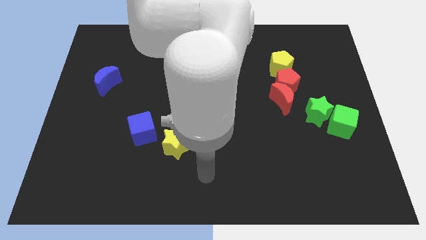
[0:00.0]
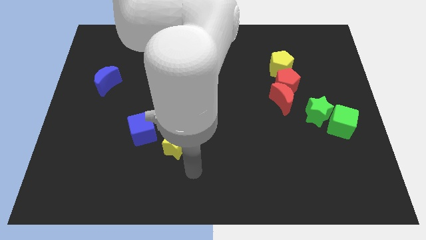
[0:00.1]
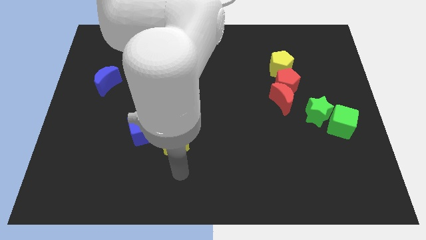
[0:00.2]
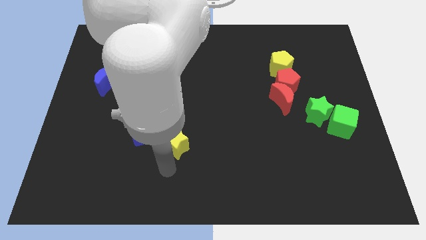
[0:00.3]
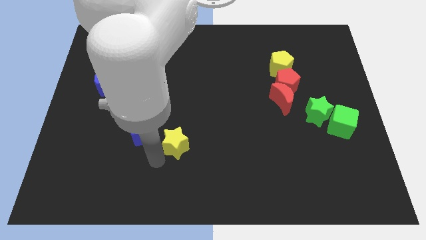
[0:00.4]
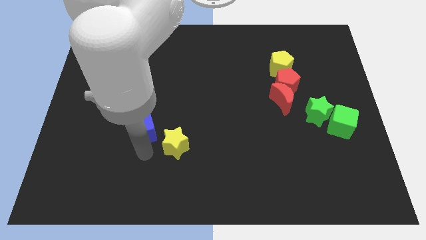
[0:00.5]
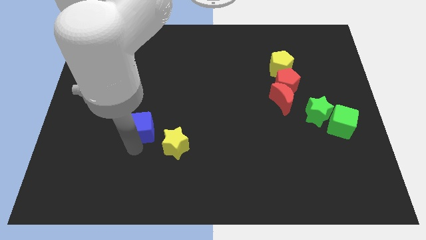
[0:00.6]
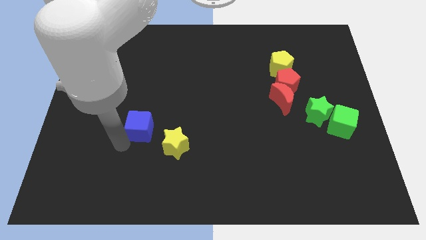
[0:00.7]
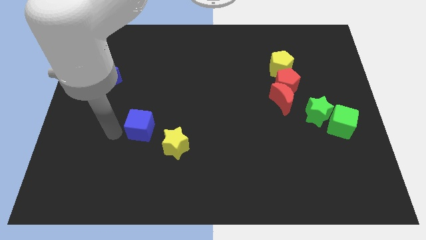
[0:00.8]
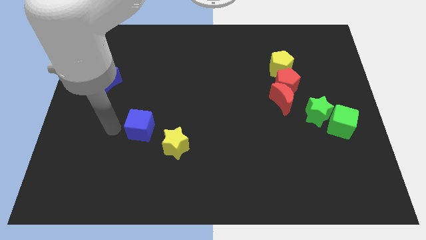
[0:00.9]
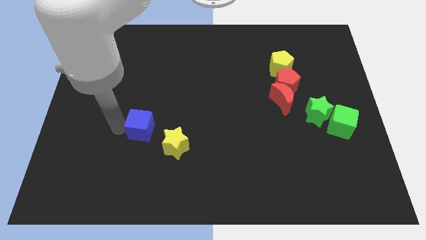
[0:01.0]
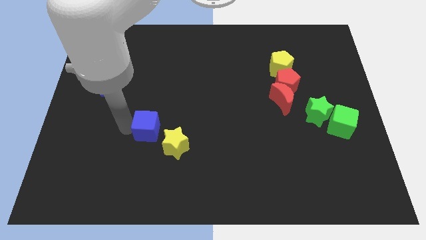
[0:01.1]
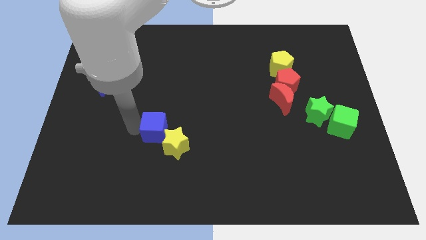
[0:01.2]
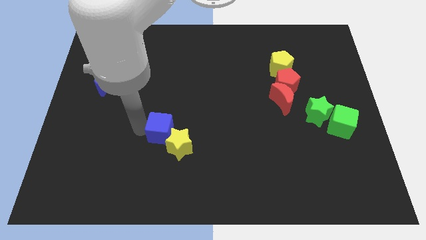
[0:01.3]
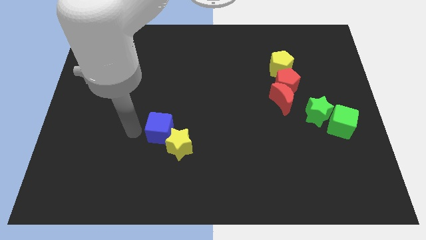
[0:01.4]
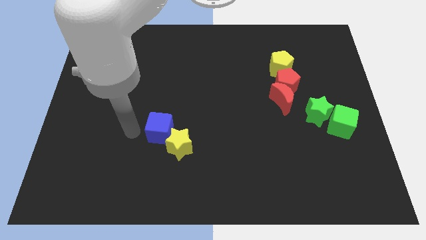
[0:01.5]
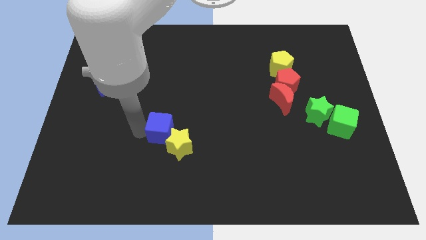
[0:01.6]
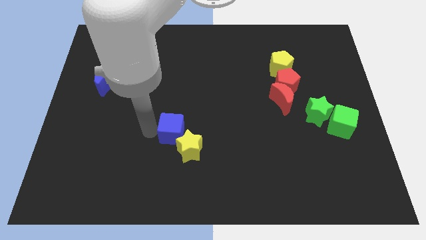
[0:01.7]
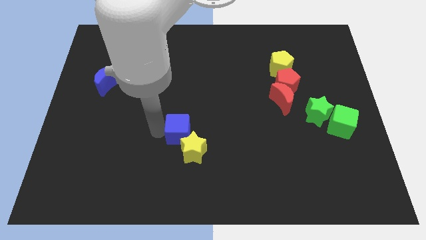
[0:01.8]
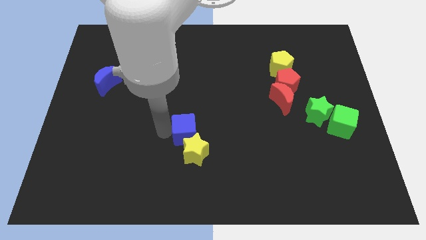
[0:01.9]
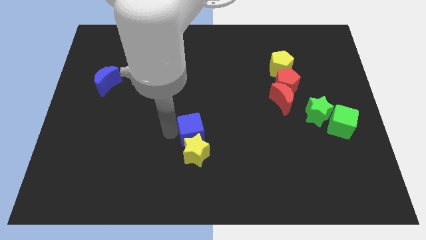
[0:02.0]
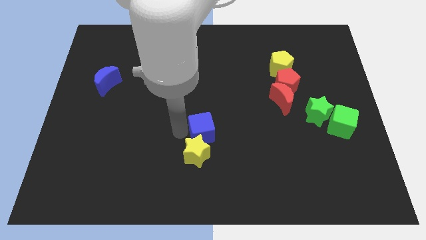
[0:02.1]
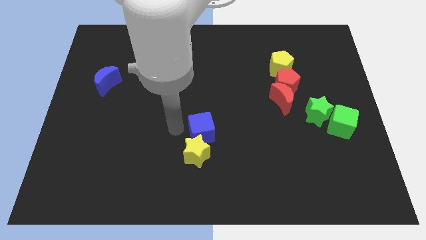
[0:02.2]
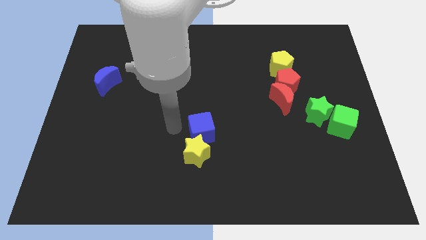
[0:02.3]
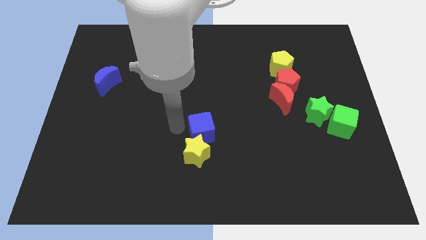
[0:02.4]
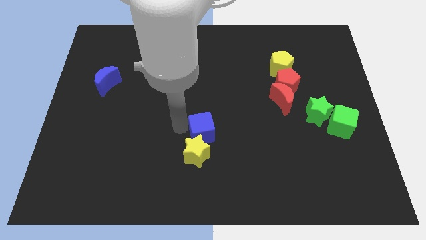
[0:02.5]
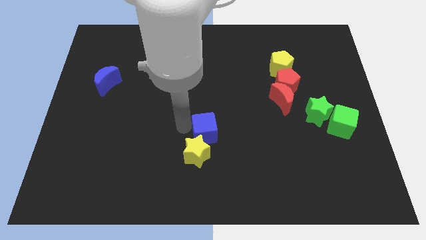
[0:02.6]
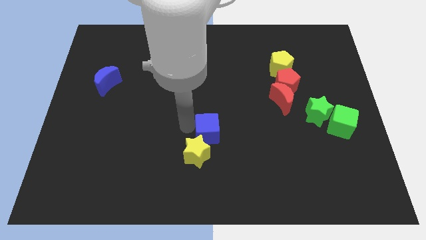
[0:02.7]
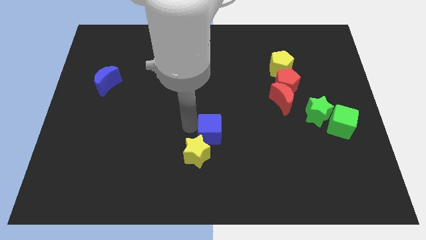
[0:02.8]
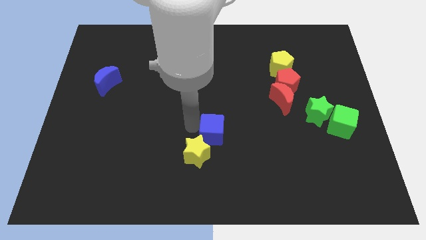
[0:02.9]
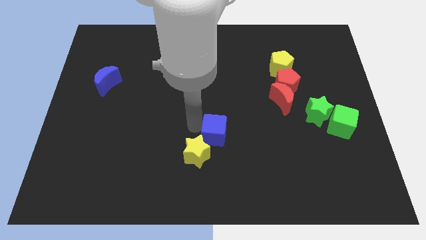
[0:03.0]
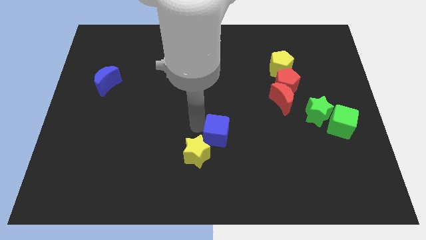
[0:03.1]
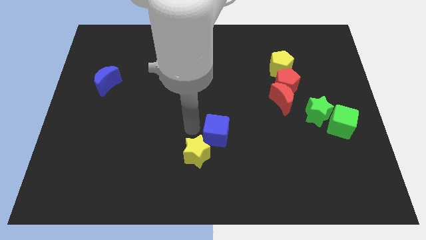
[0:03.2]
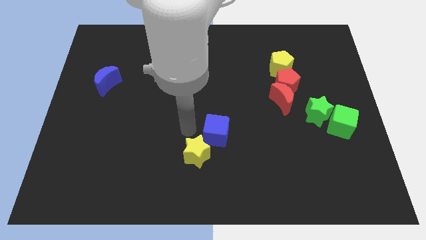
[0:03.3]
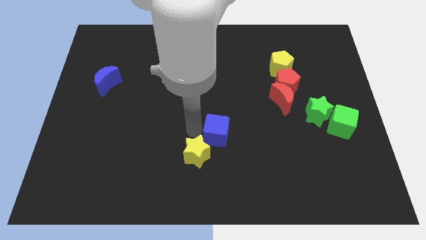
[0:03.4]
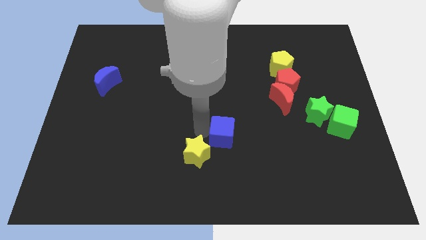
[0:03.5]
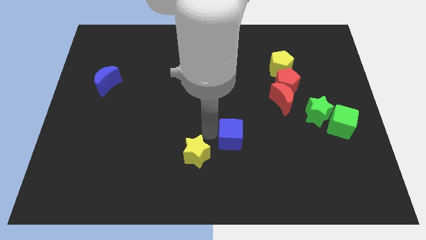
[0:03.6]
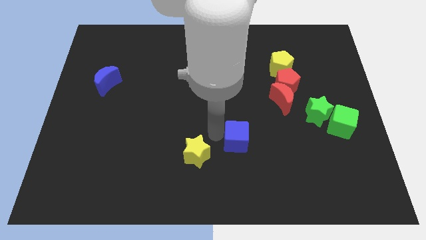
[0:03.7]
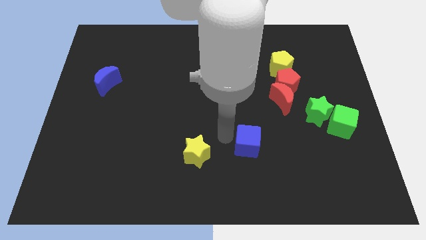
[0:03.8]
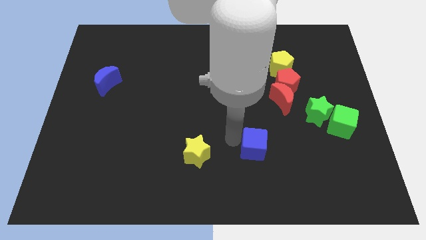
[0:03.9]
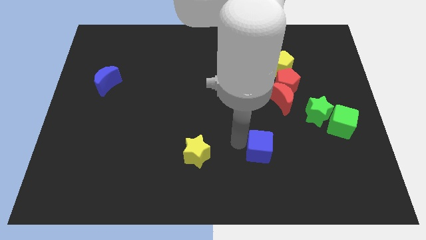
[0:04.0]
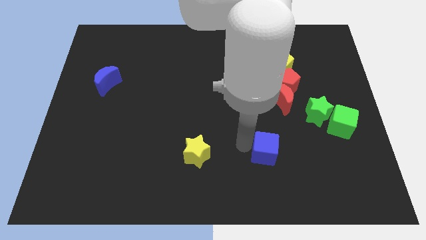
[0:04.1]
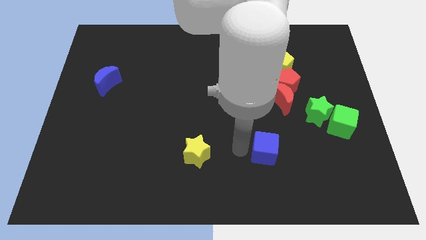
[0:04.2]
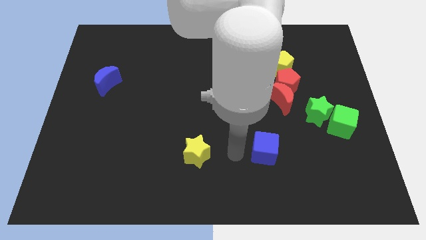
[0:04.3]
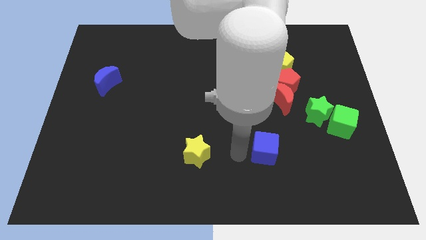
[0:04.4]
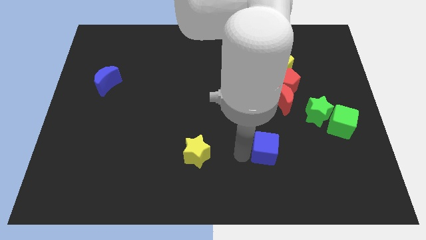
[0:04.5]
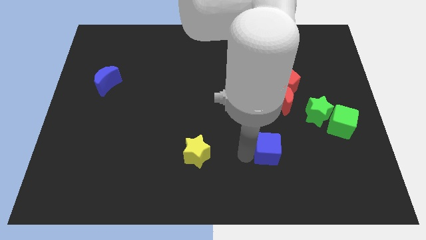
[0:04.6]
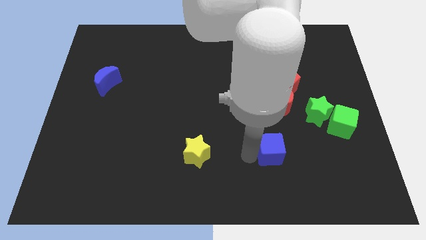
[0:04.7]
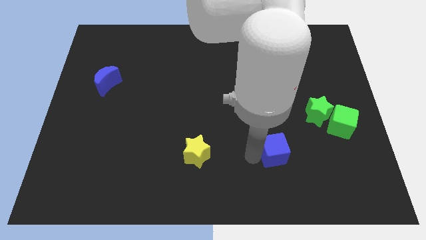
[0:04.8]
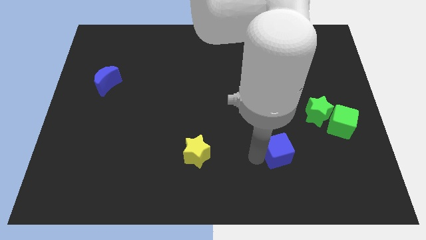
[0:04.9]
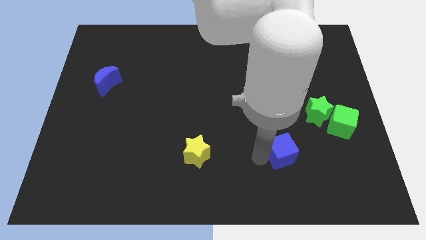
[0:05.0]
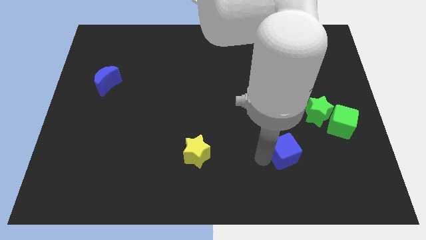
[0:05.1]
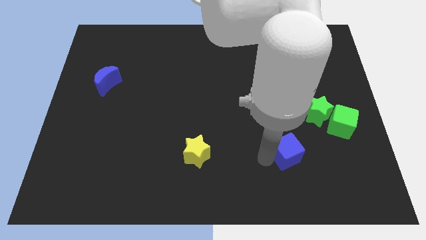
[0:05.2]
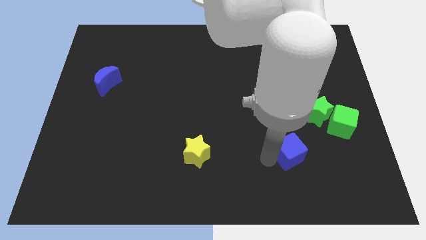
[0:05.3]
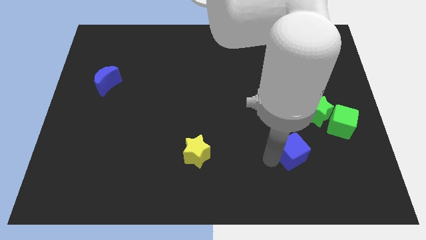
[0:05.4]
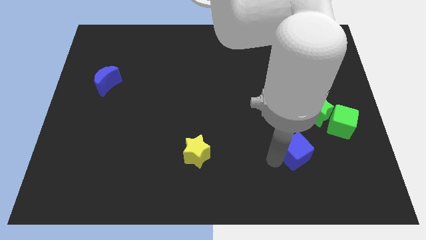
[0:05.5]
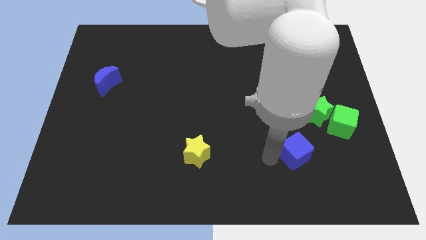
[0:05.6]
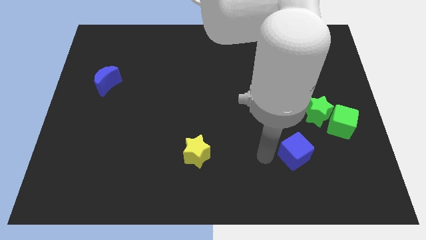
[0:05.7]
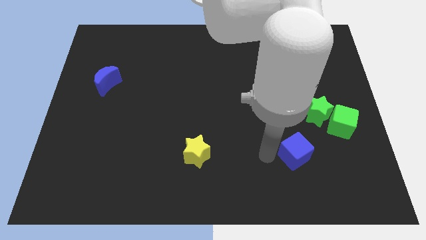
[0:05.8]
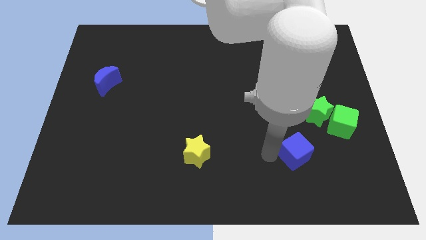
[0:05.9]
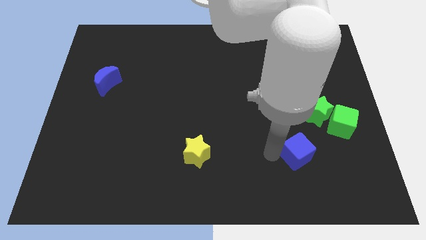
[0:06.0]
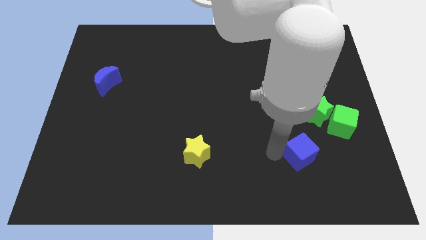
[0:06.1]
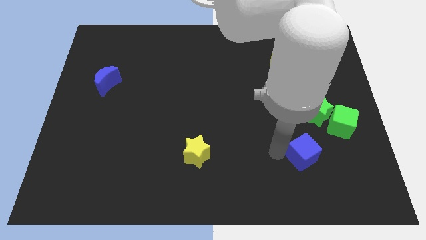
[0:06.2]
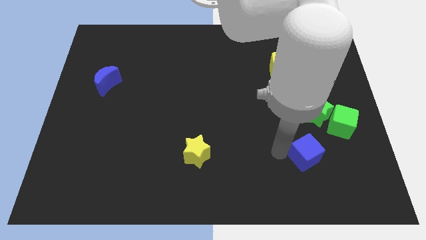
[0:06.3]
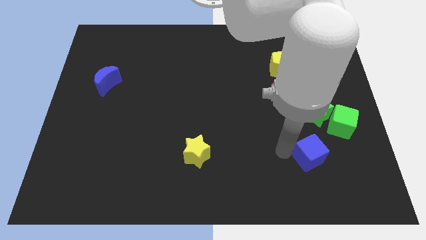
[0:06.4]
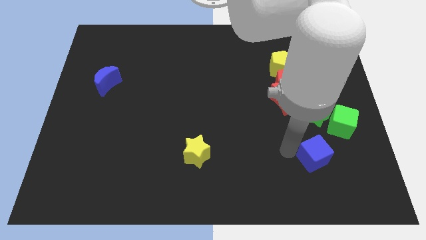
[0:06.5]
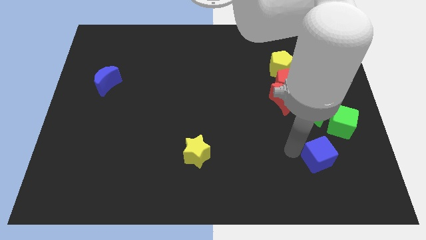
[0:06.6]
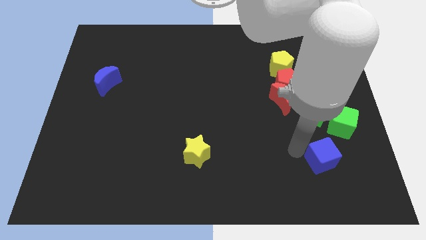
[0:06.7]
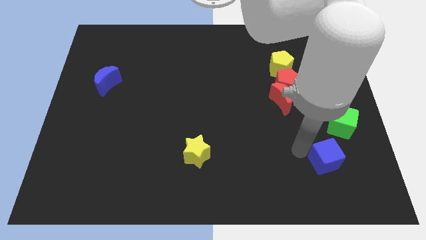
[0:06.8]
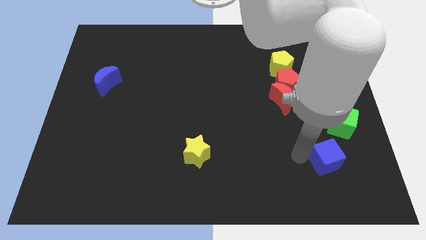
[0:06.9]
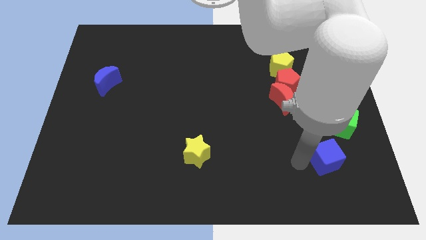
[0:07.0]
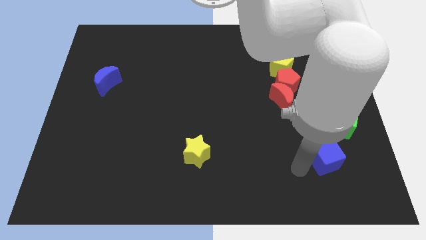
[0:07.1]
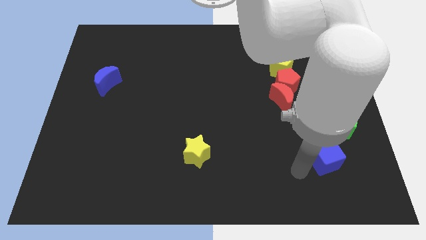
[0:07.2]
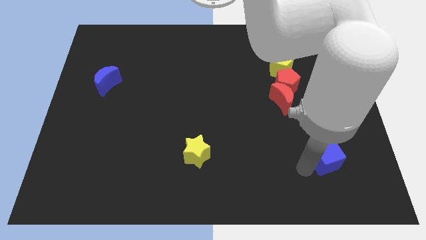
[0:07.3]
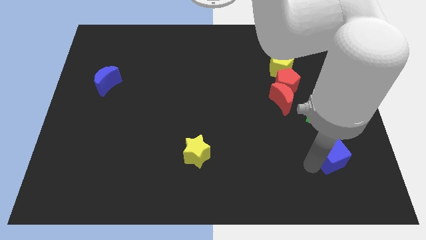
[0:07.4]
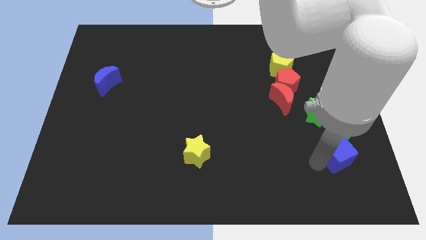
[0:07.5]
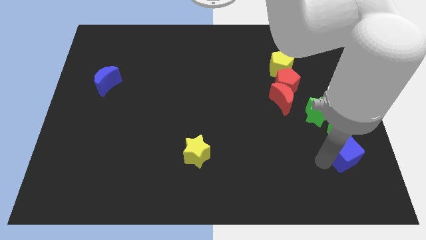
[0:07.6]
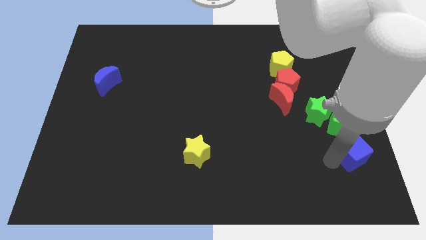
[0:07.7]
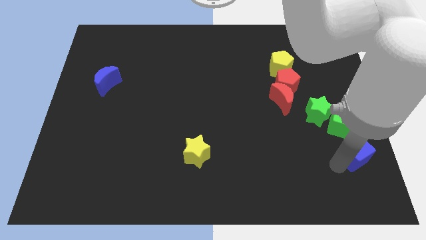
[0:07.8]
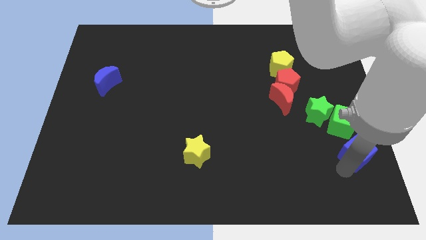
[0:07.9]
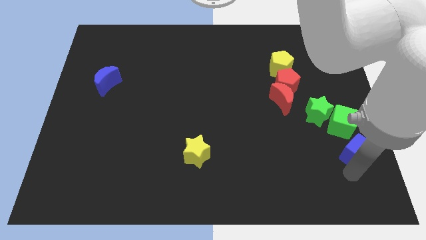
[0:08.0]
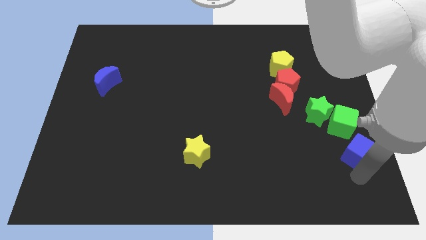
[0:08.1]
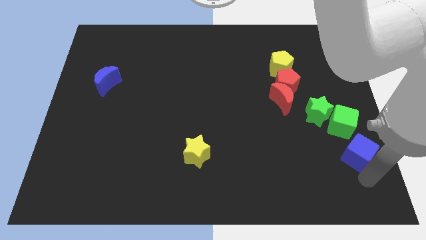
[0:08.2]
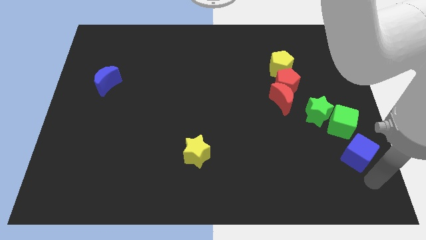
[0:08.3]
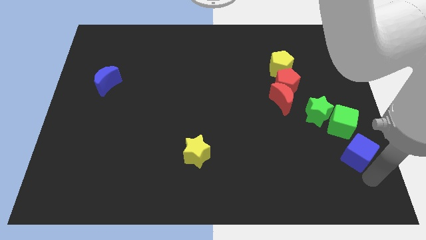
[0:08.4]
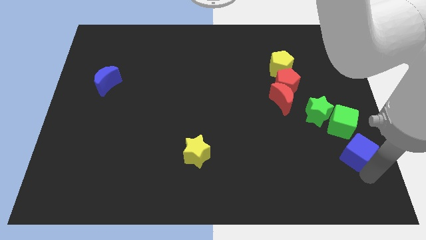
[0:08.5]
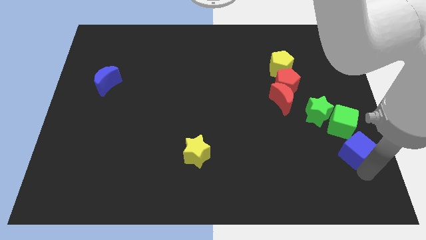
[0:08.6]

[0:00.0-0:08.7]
slide the blue cube to the bottom right of the green star
